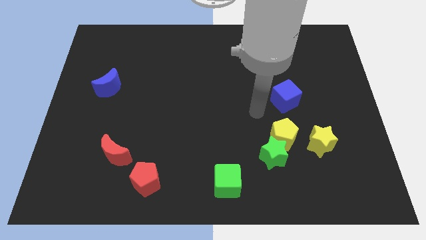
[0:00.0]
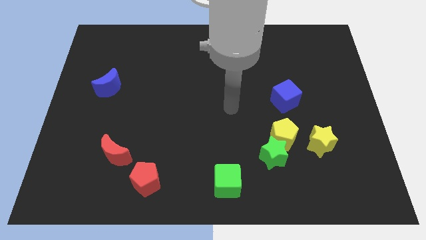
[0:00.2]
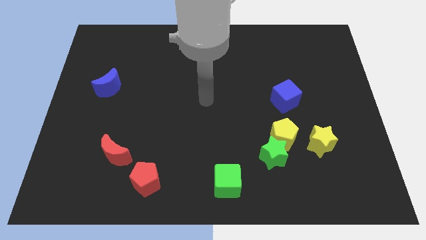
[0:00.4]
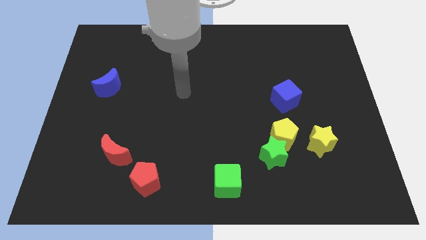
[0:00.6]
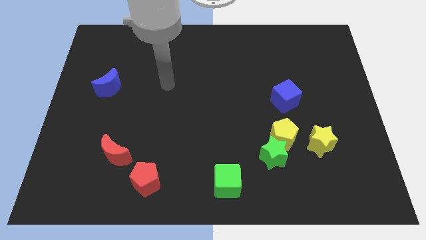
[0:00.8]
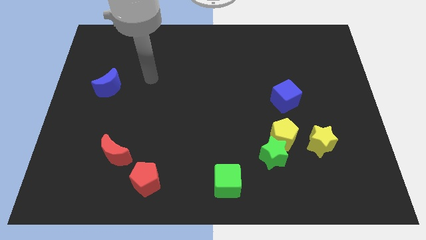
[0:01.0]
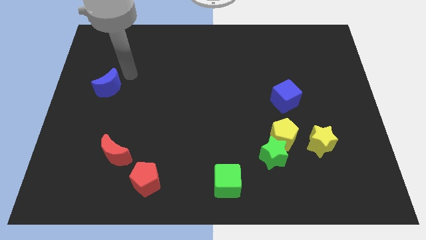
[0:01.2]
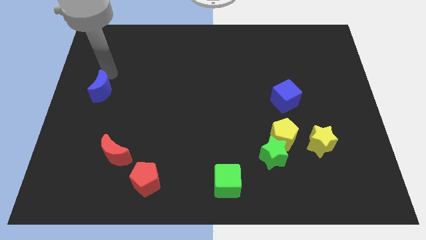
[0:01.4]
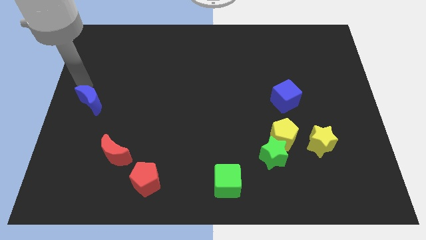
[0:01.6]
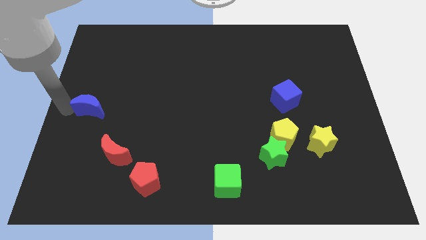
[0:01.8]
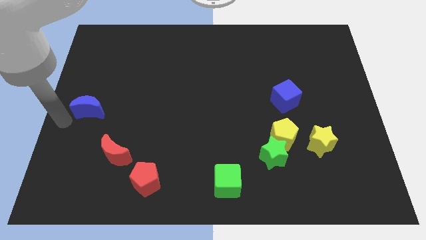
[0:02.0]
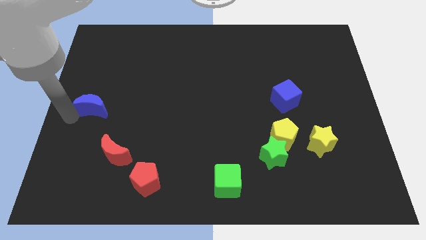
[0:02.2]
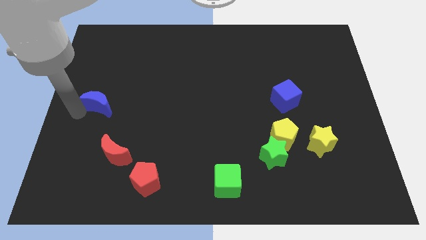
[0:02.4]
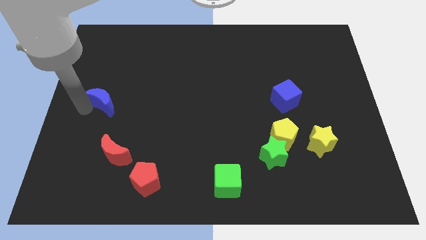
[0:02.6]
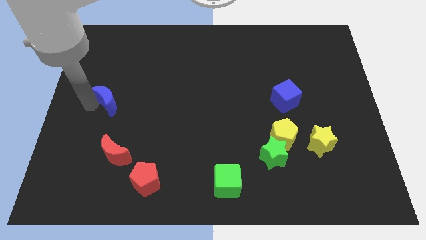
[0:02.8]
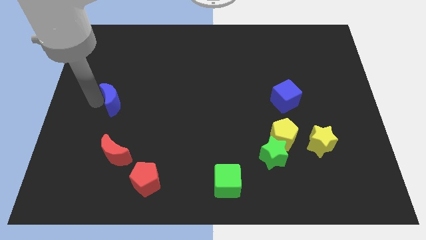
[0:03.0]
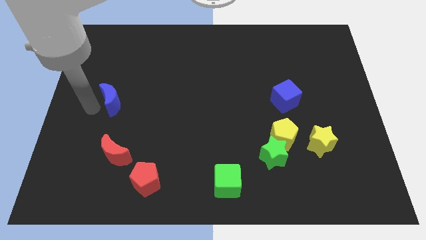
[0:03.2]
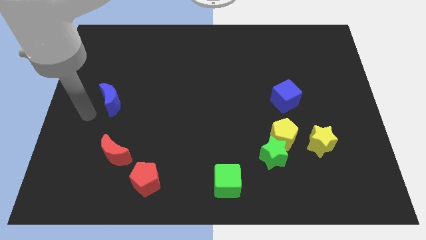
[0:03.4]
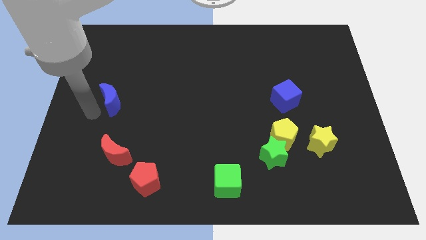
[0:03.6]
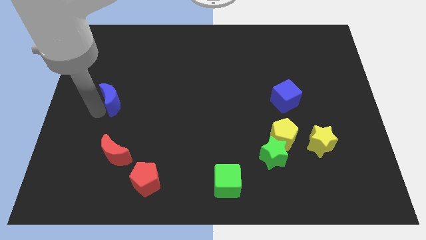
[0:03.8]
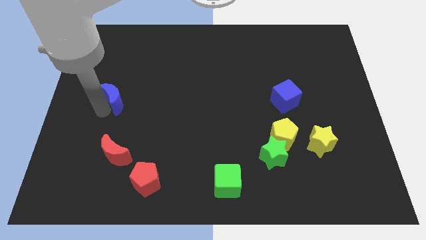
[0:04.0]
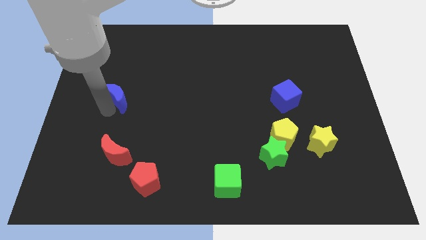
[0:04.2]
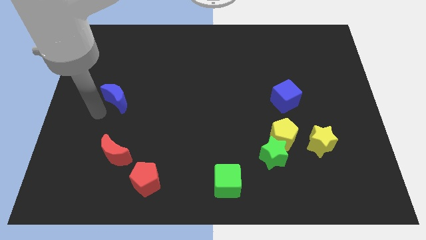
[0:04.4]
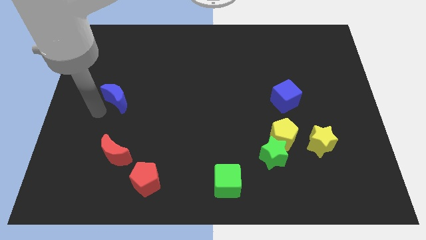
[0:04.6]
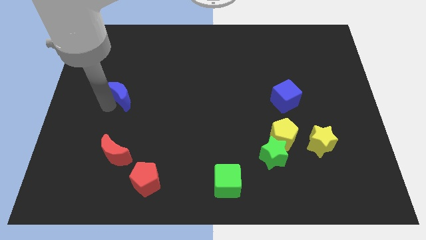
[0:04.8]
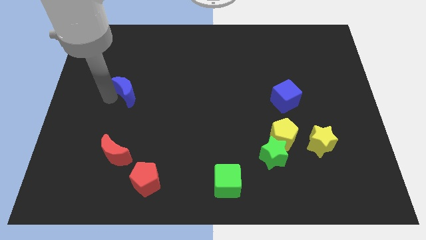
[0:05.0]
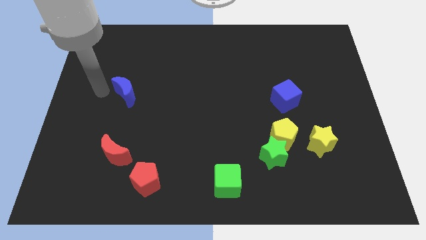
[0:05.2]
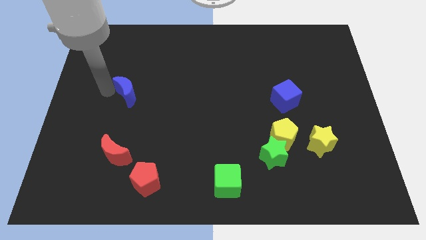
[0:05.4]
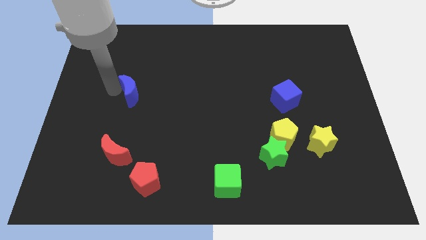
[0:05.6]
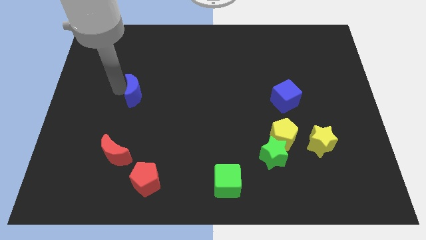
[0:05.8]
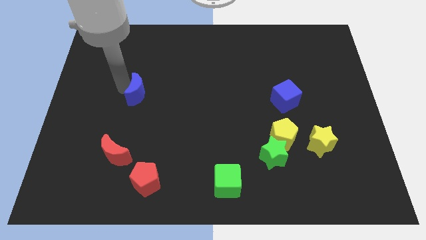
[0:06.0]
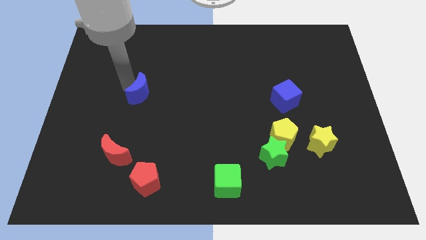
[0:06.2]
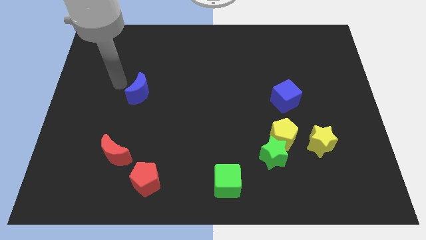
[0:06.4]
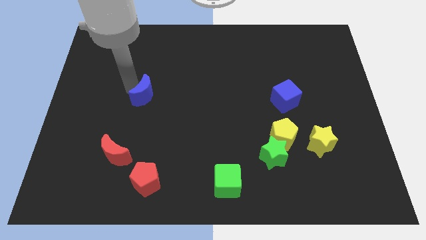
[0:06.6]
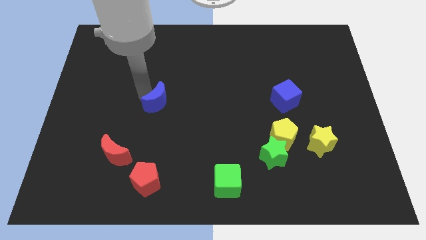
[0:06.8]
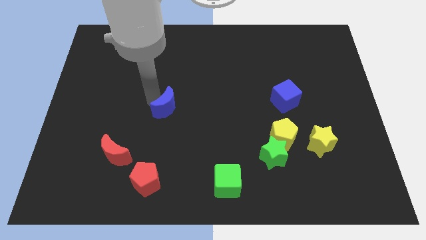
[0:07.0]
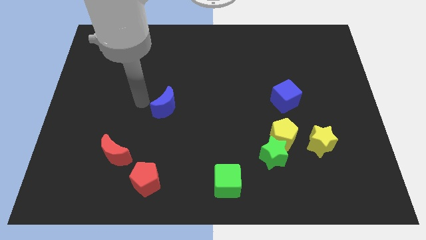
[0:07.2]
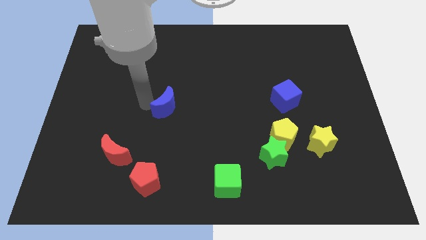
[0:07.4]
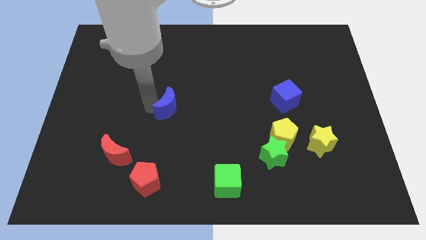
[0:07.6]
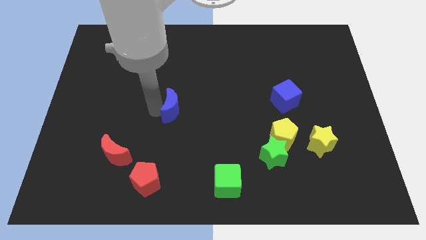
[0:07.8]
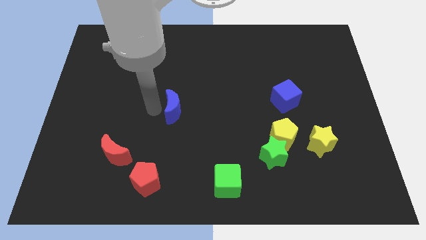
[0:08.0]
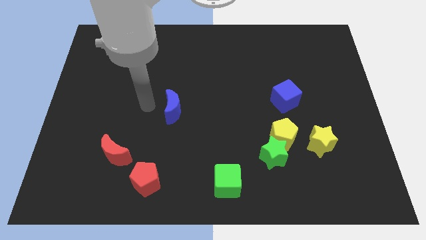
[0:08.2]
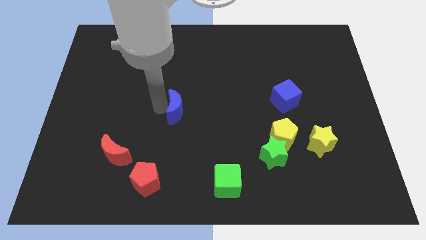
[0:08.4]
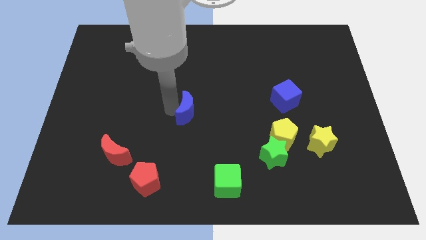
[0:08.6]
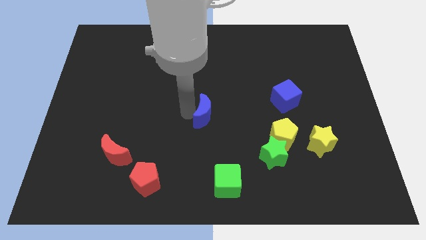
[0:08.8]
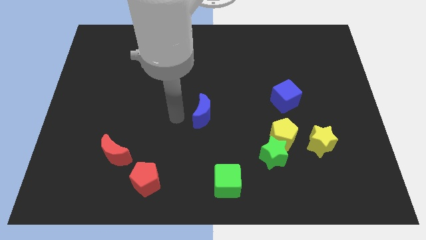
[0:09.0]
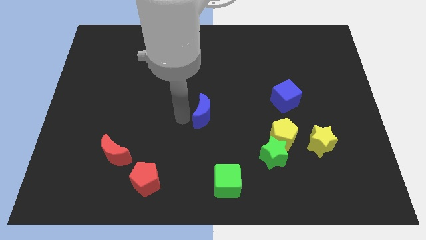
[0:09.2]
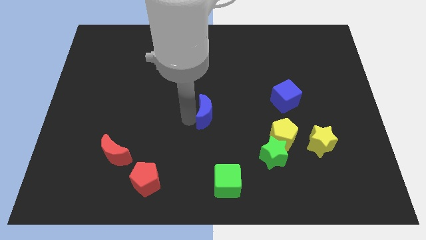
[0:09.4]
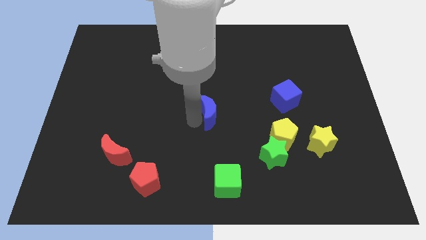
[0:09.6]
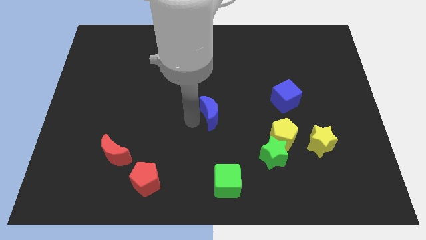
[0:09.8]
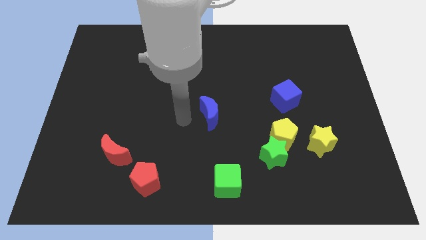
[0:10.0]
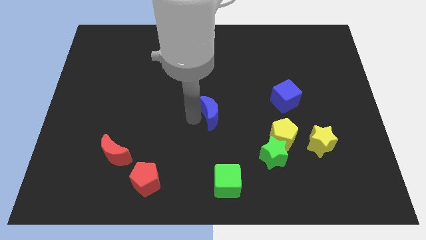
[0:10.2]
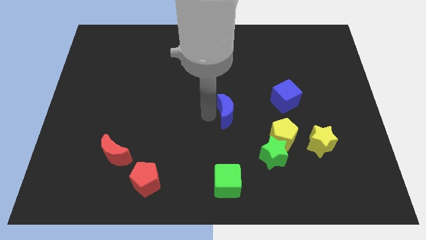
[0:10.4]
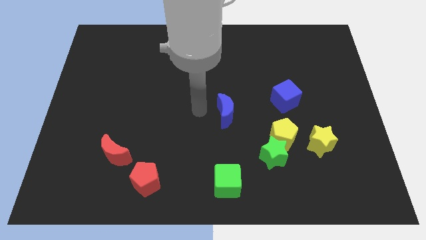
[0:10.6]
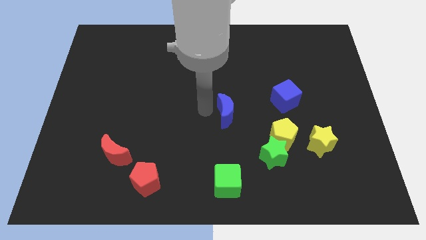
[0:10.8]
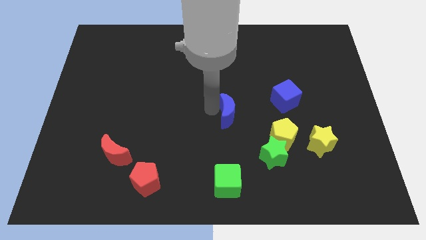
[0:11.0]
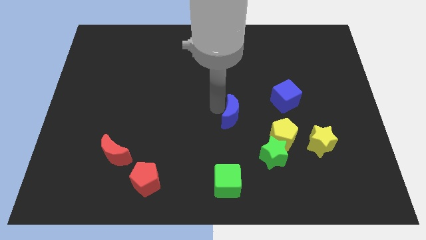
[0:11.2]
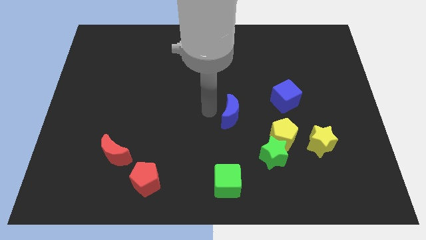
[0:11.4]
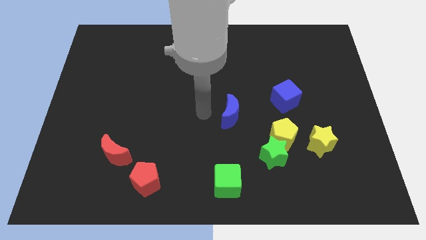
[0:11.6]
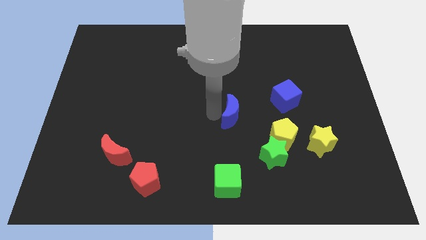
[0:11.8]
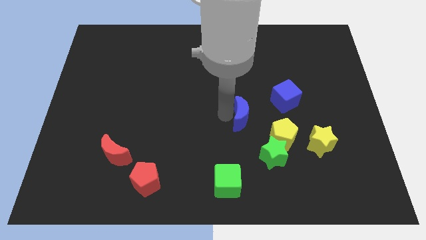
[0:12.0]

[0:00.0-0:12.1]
push the blue moon to the bottom left side of the blue cube

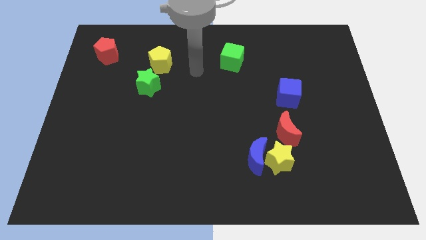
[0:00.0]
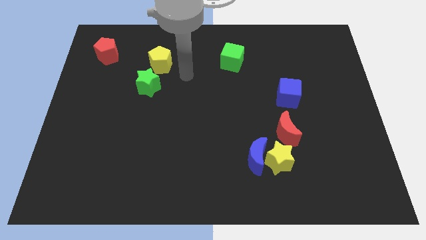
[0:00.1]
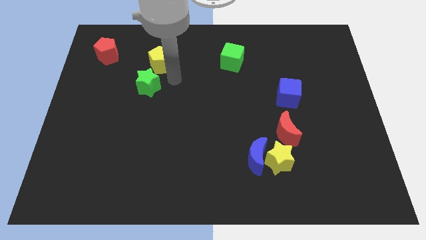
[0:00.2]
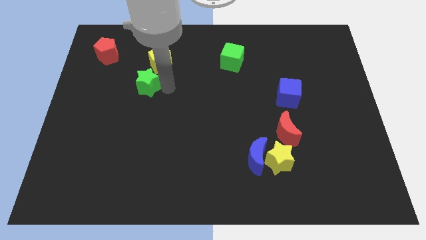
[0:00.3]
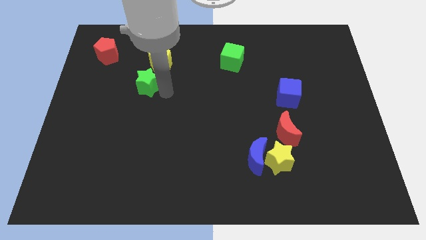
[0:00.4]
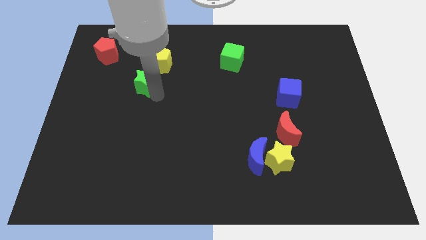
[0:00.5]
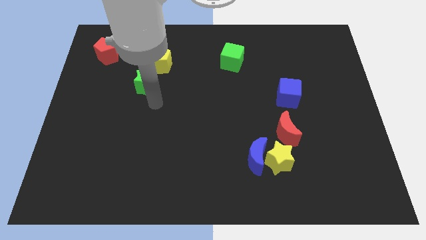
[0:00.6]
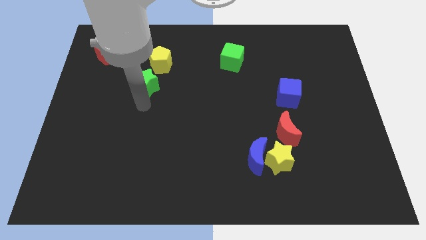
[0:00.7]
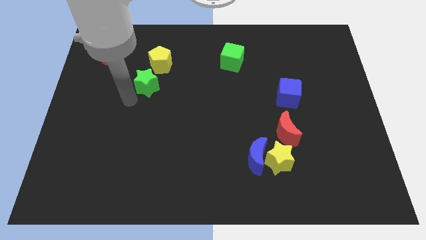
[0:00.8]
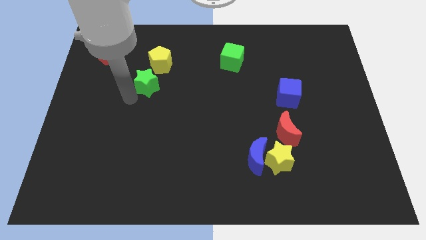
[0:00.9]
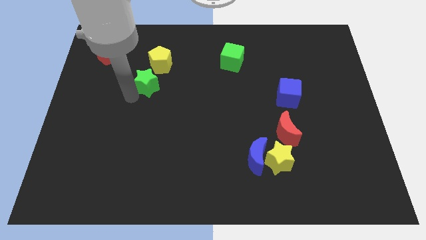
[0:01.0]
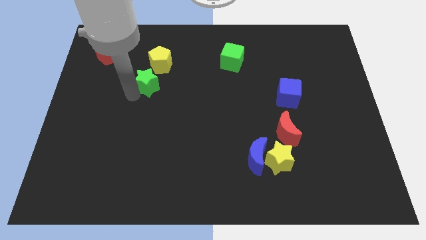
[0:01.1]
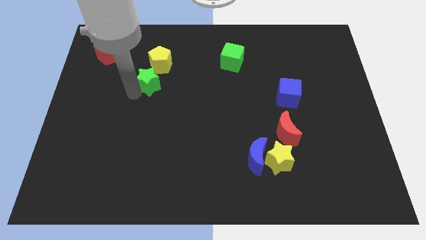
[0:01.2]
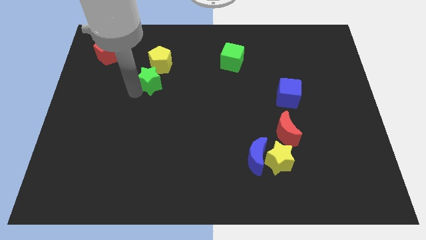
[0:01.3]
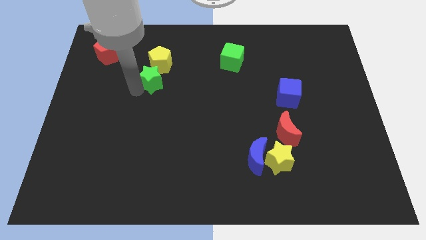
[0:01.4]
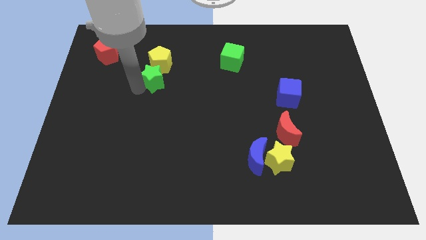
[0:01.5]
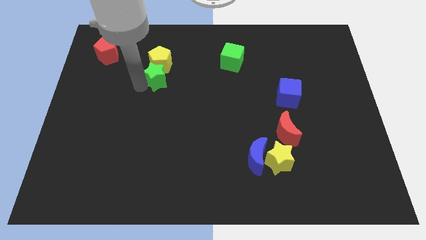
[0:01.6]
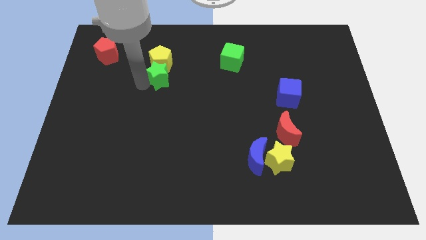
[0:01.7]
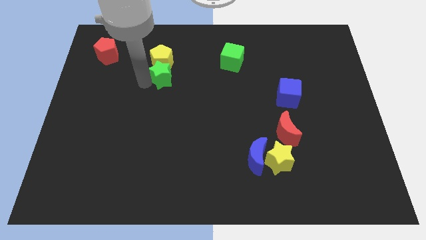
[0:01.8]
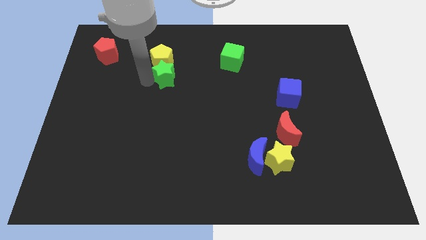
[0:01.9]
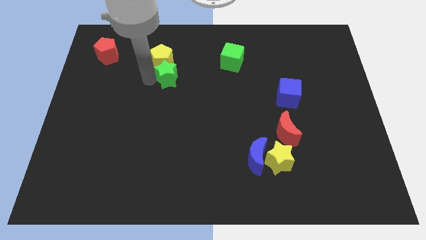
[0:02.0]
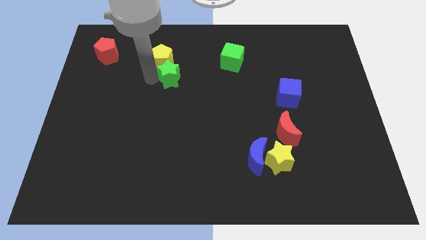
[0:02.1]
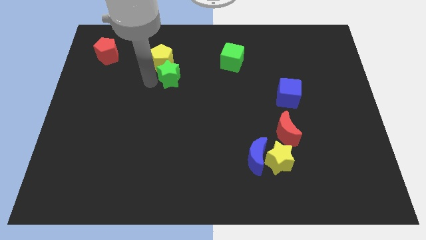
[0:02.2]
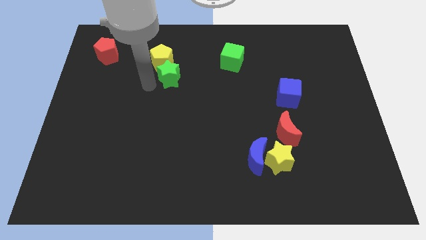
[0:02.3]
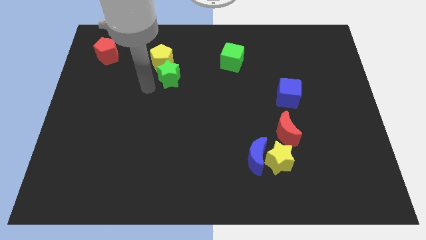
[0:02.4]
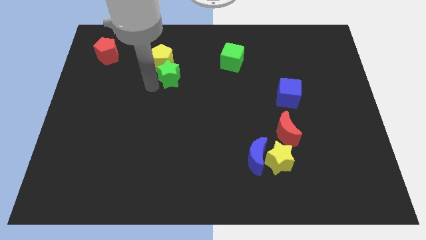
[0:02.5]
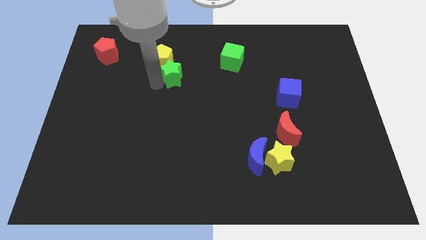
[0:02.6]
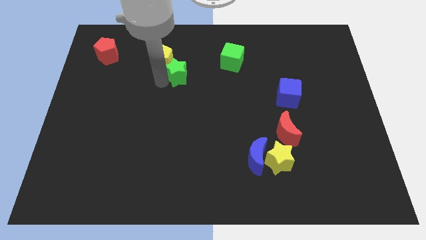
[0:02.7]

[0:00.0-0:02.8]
slide the green star to the right side of the yellow pentagon
